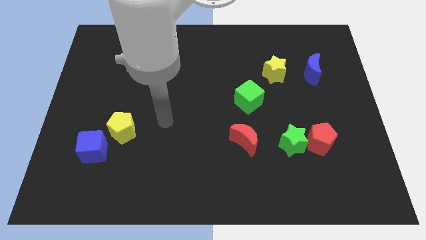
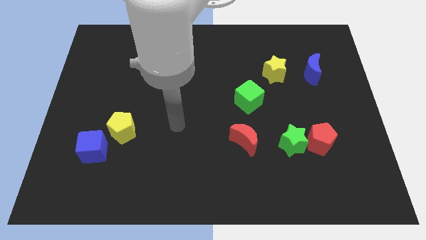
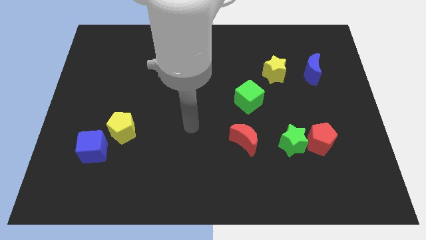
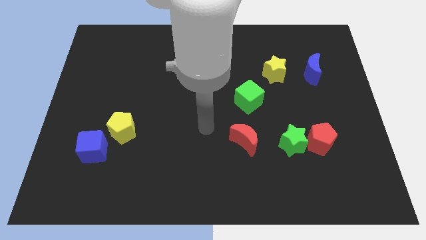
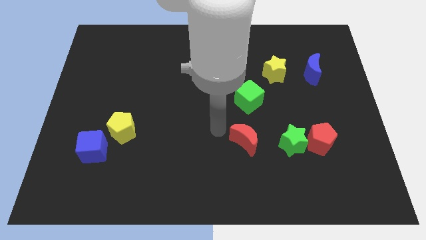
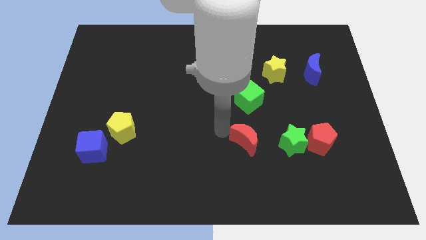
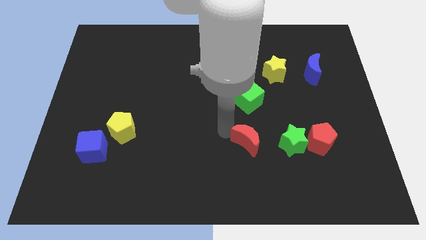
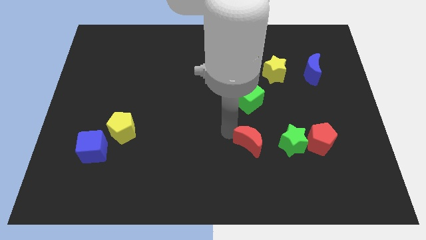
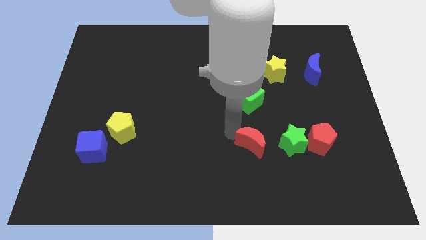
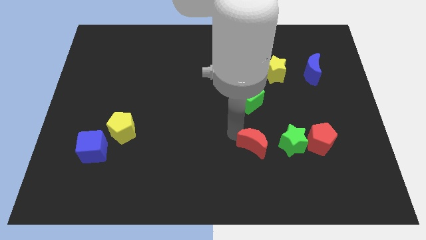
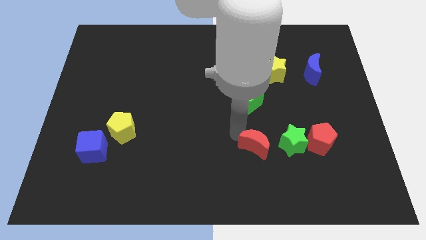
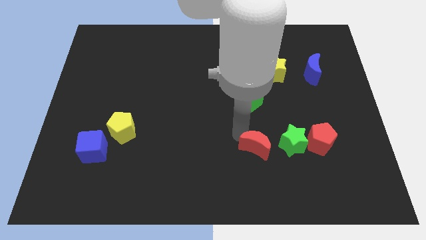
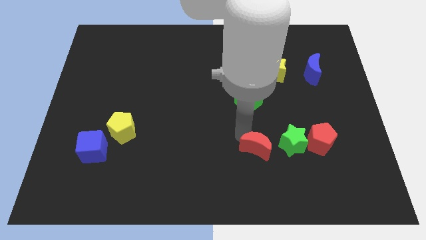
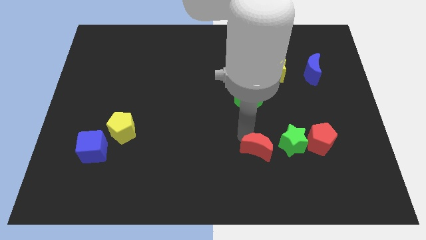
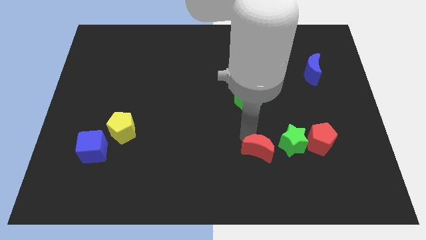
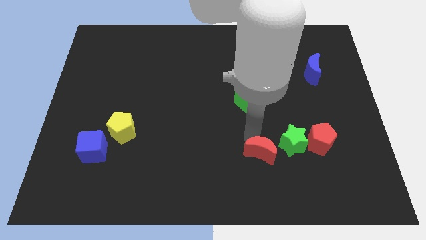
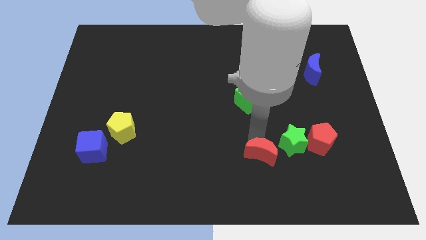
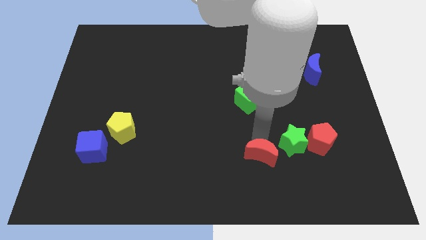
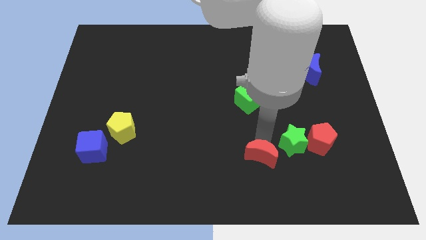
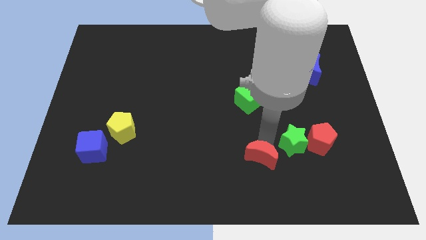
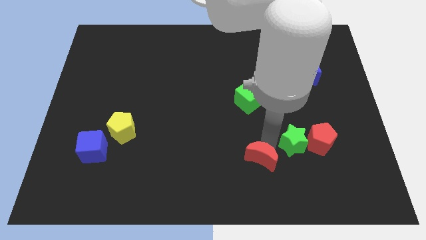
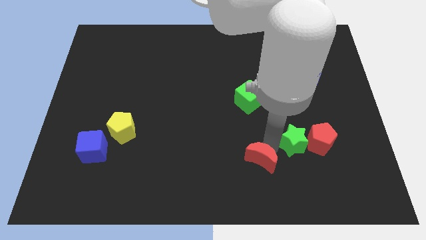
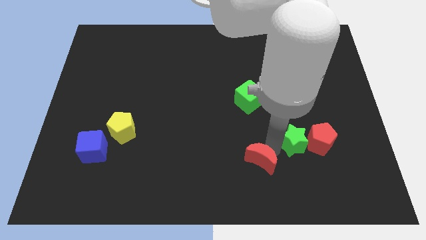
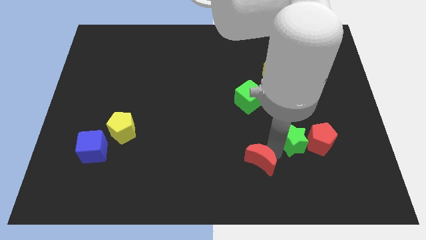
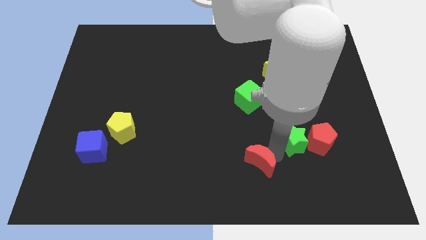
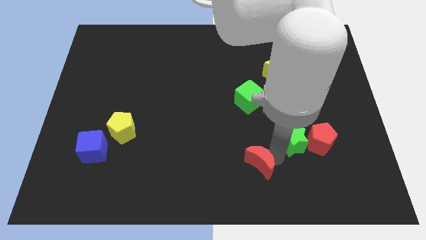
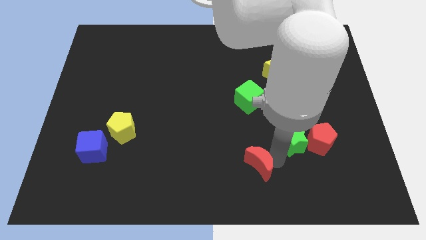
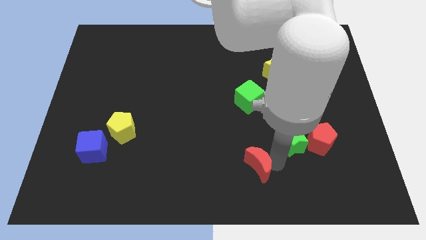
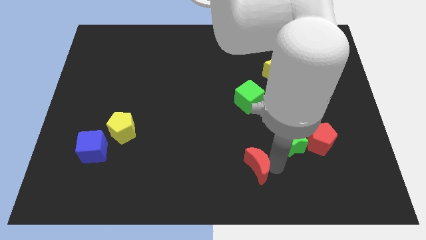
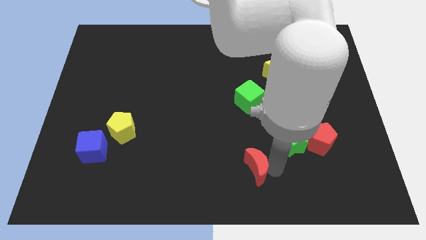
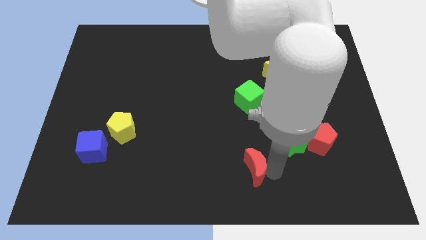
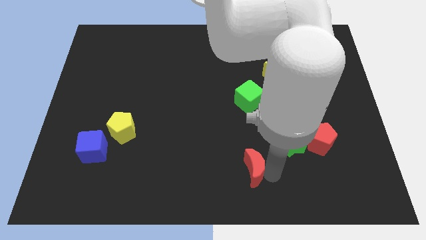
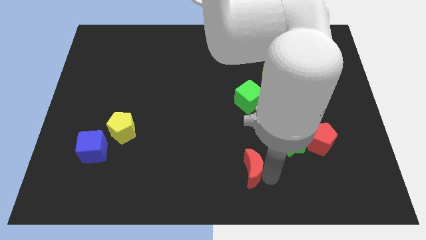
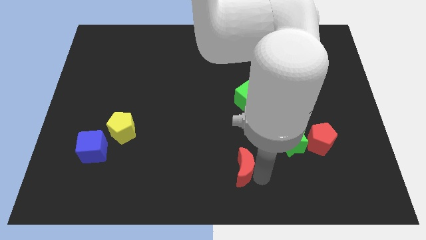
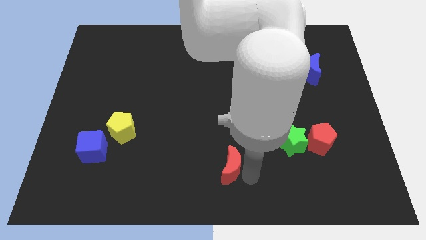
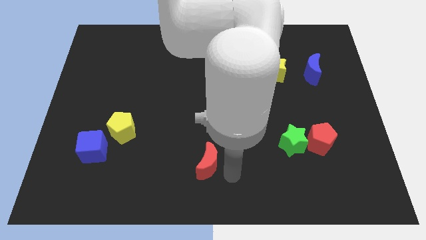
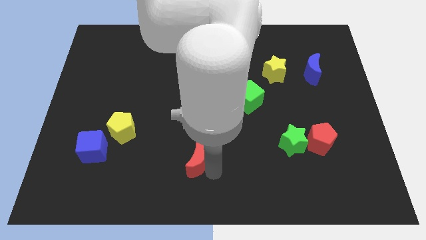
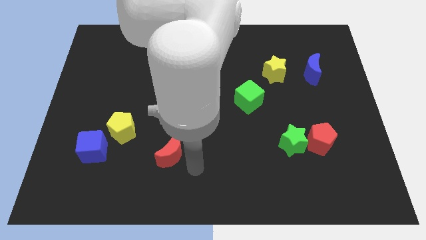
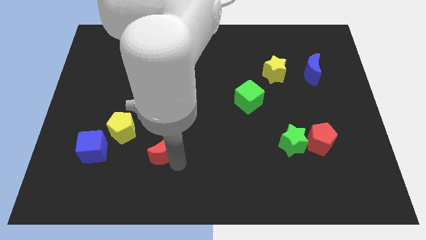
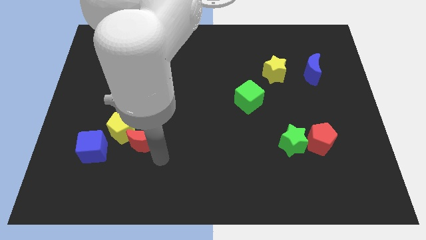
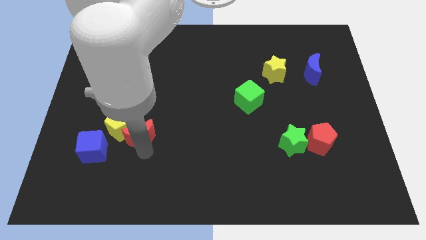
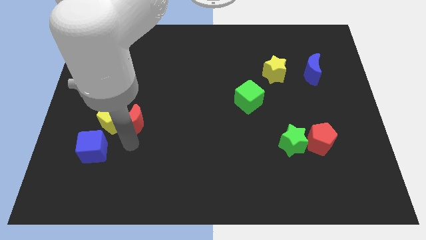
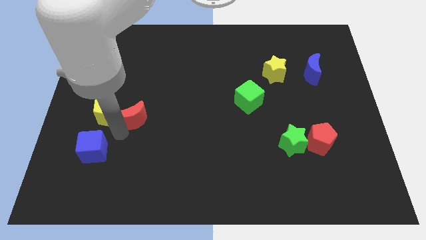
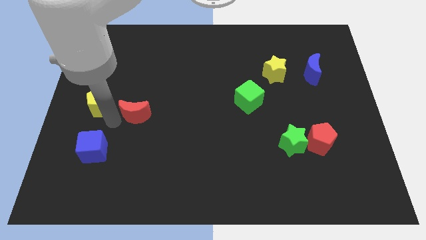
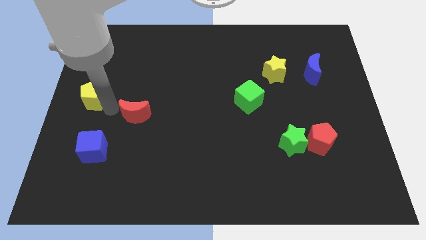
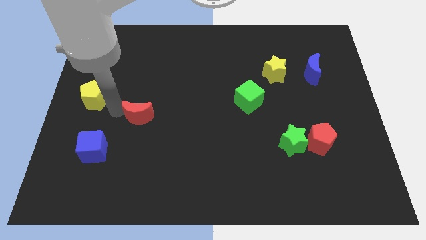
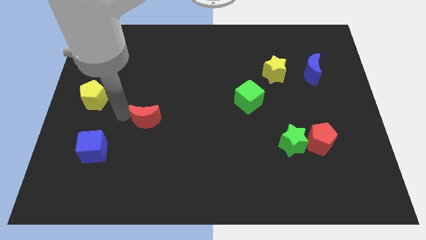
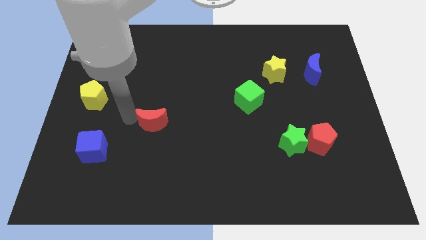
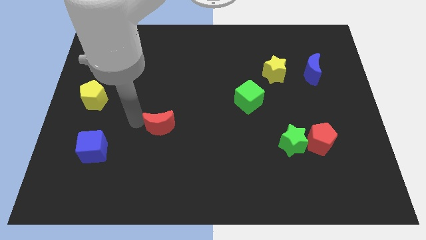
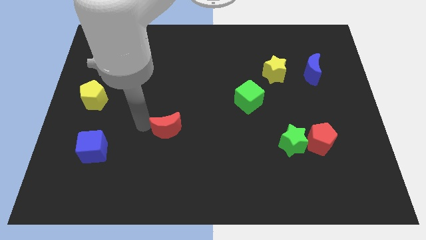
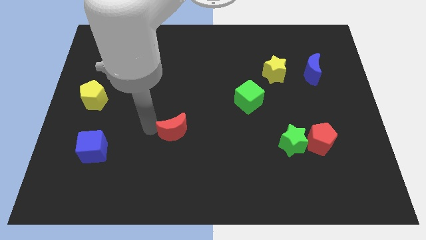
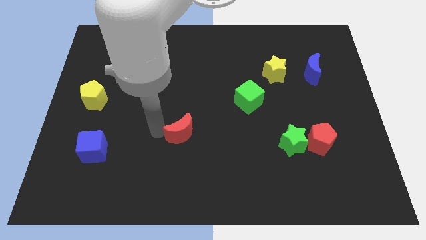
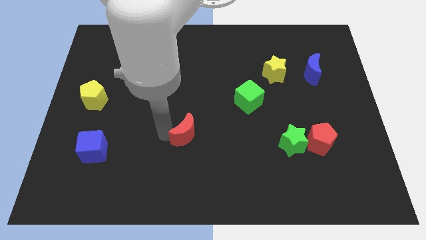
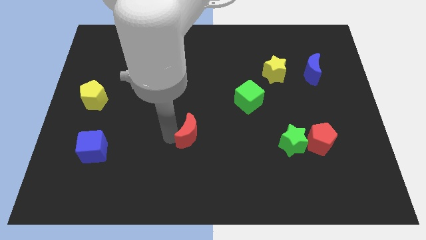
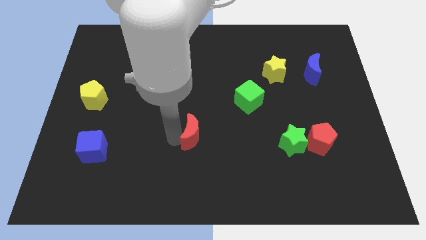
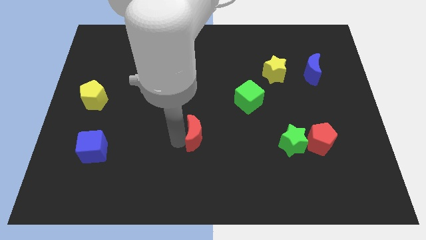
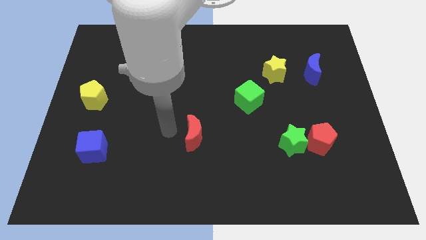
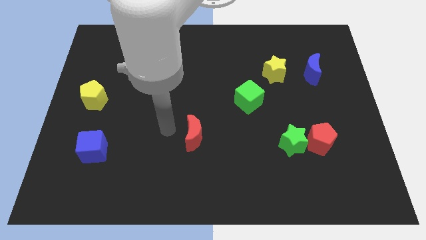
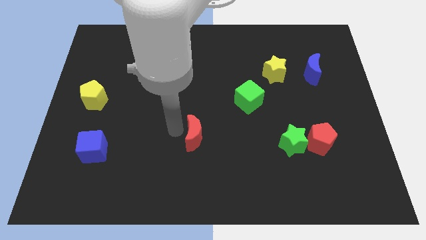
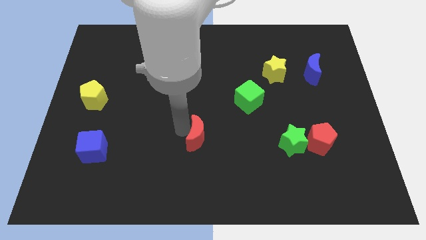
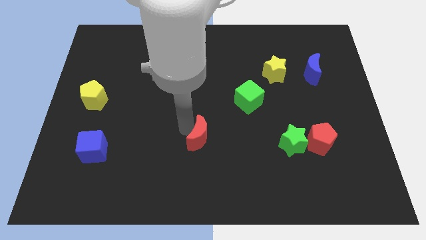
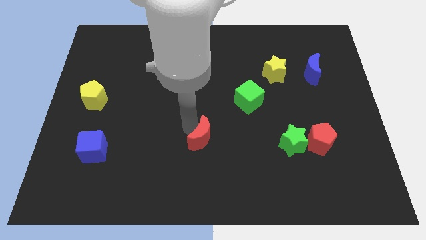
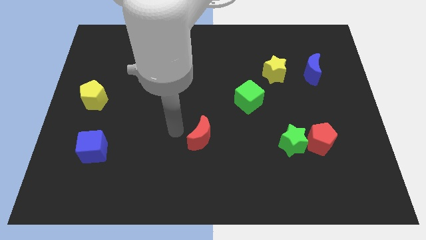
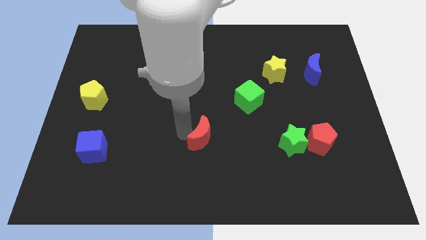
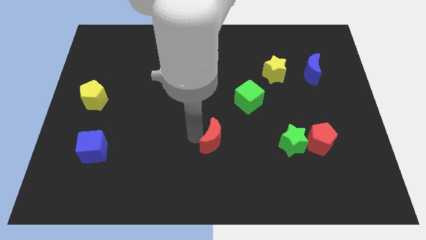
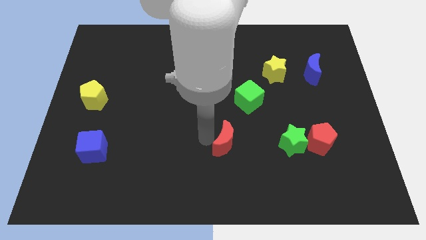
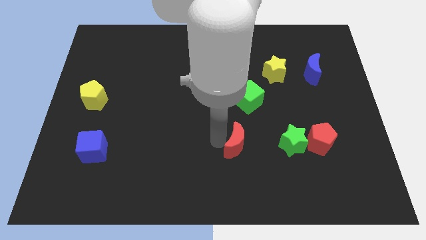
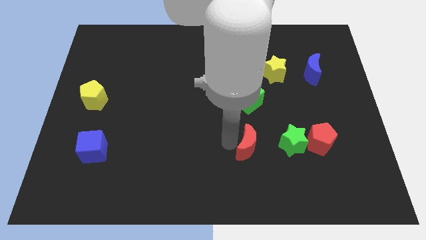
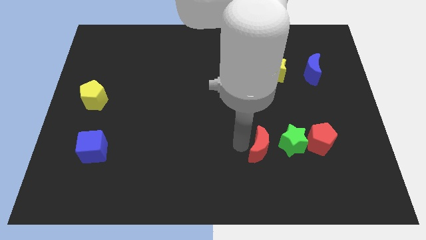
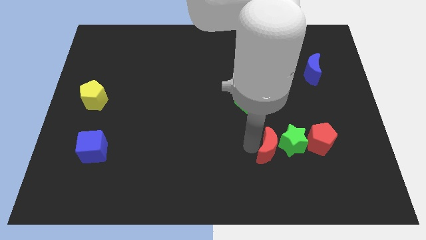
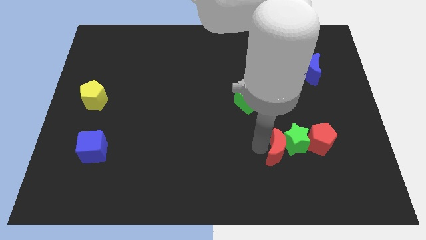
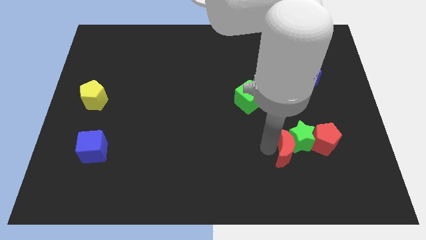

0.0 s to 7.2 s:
move the red moon diagonally down and to the left of the red pentagon
